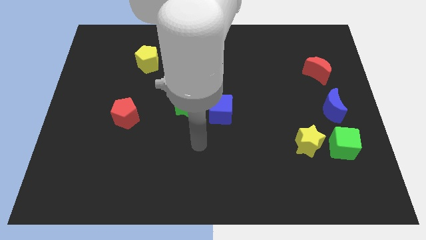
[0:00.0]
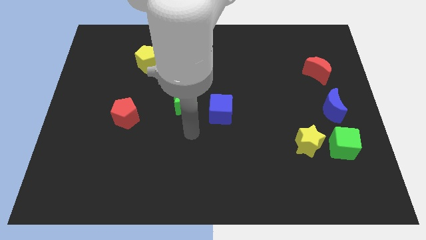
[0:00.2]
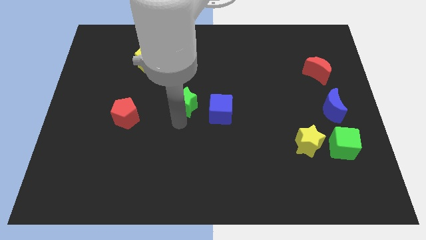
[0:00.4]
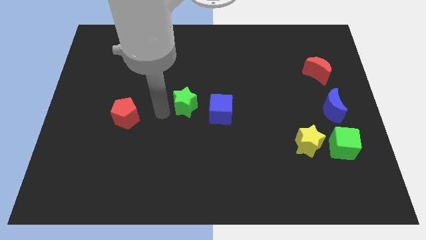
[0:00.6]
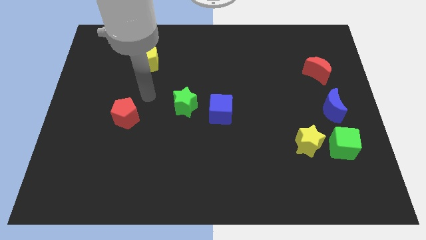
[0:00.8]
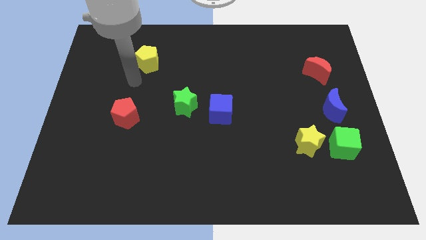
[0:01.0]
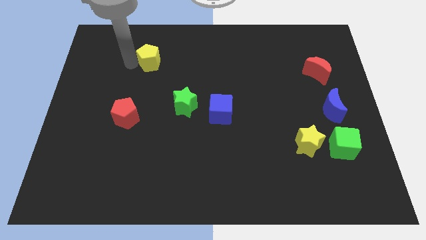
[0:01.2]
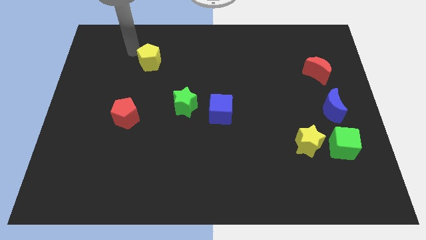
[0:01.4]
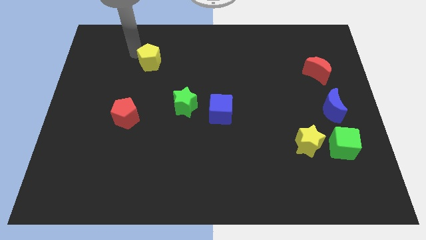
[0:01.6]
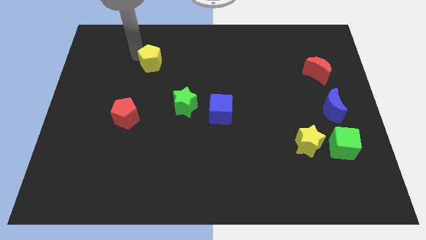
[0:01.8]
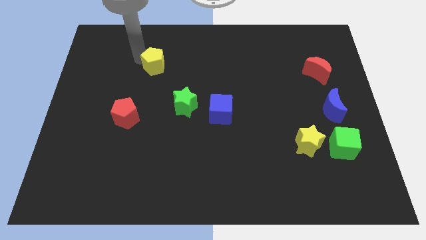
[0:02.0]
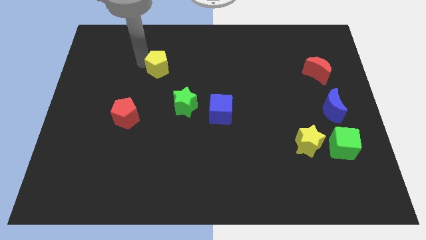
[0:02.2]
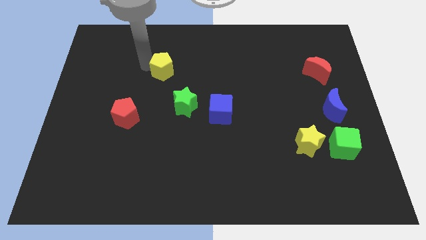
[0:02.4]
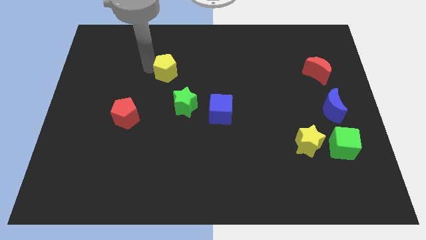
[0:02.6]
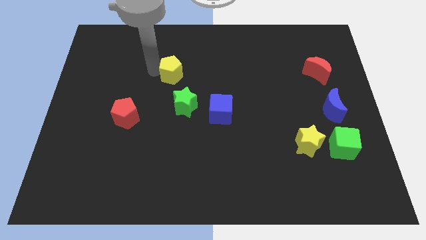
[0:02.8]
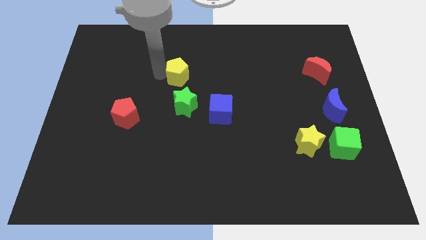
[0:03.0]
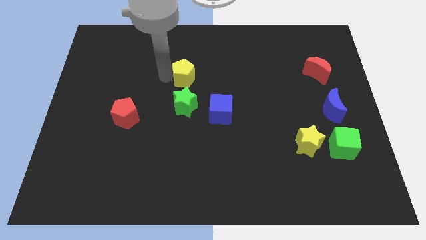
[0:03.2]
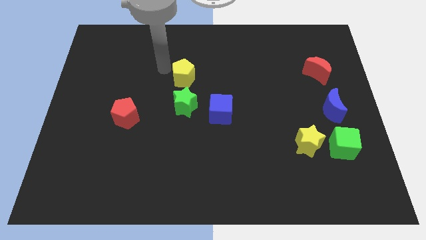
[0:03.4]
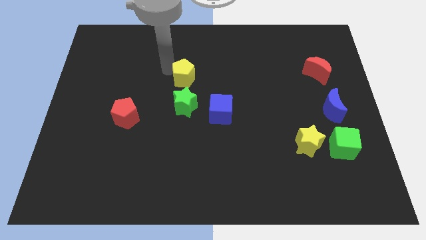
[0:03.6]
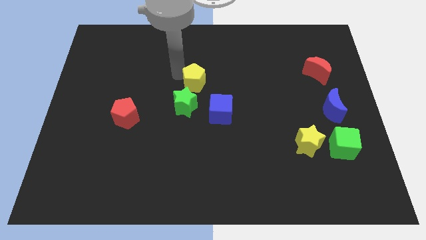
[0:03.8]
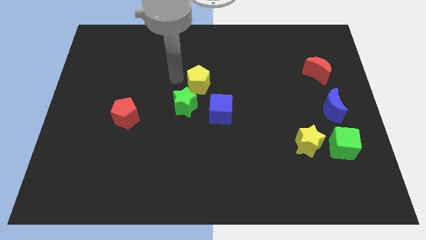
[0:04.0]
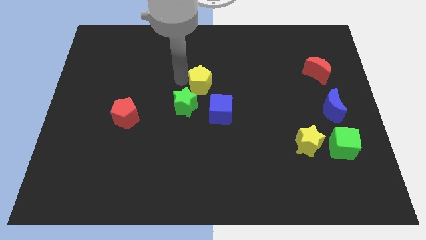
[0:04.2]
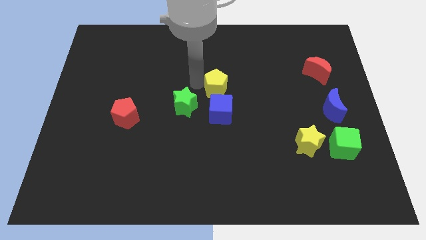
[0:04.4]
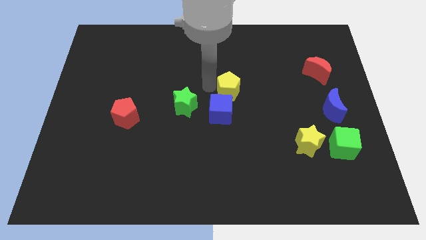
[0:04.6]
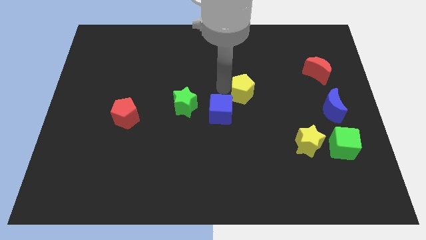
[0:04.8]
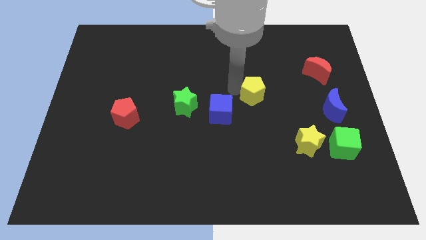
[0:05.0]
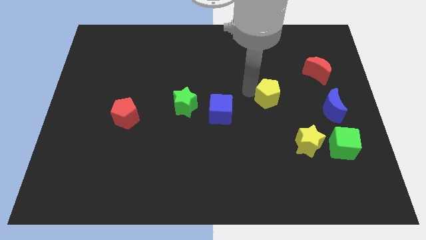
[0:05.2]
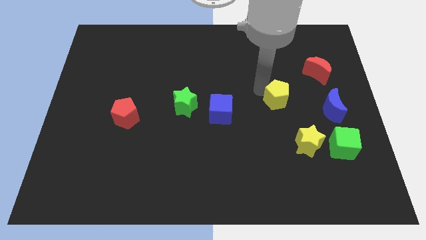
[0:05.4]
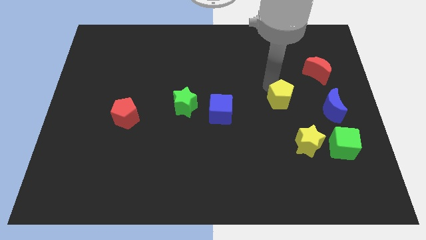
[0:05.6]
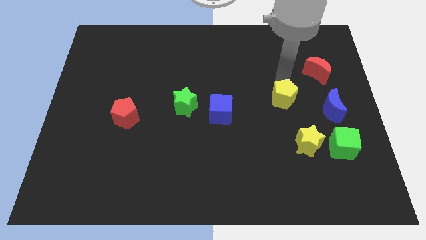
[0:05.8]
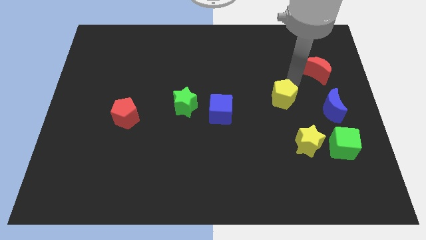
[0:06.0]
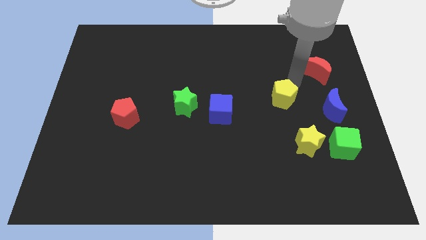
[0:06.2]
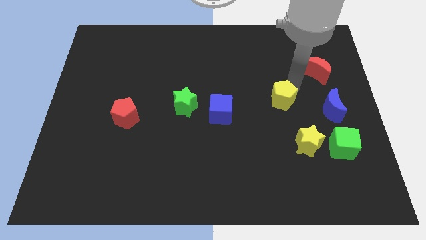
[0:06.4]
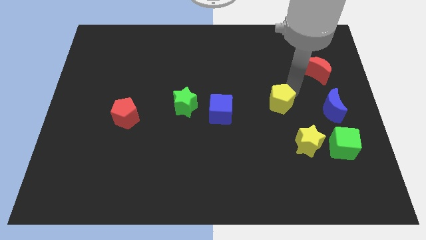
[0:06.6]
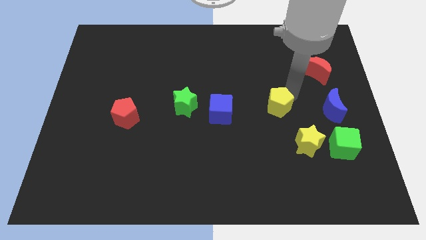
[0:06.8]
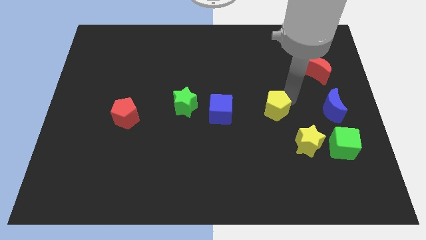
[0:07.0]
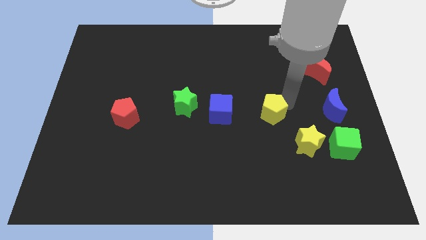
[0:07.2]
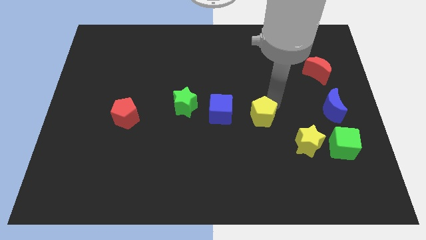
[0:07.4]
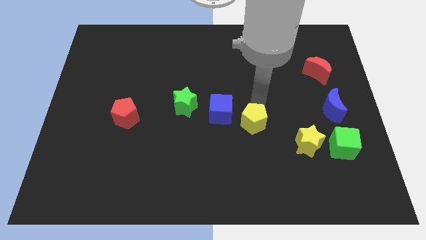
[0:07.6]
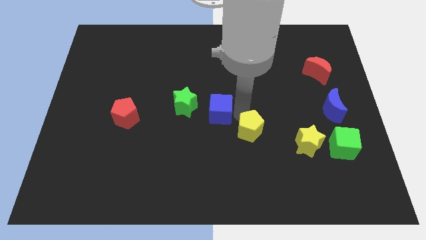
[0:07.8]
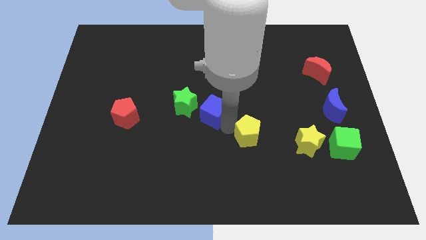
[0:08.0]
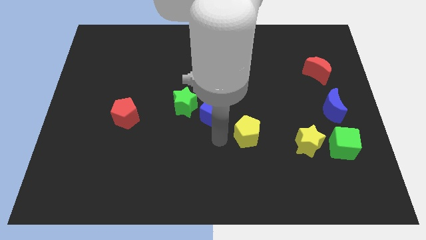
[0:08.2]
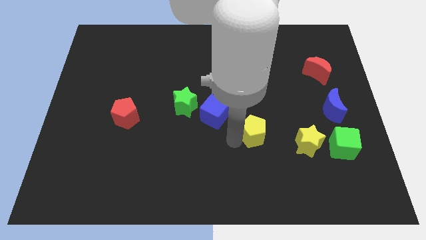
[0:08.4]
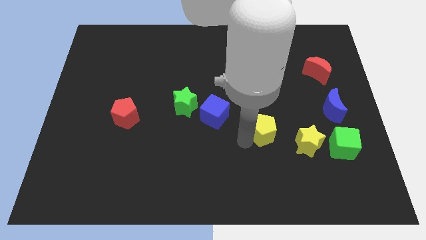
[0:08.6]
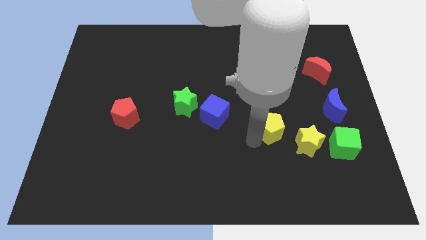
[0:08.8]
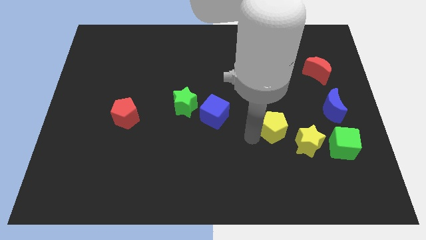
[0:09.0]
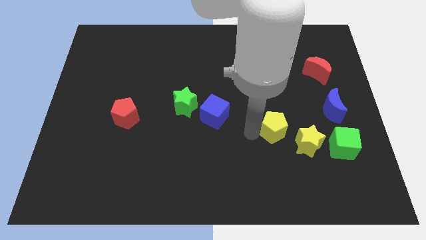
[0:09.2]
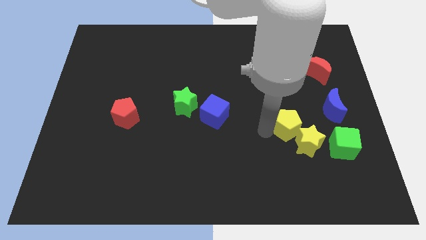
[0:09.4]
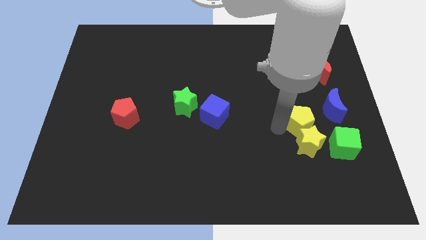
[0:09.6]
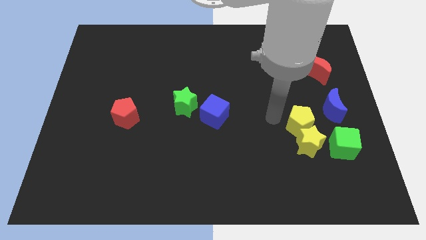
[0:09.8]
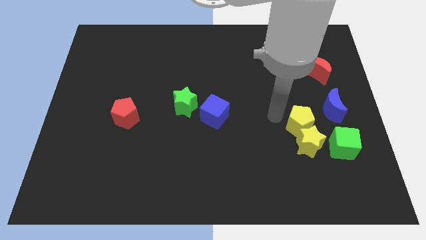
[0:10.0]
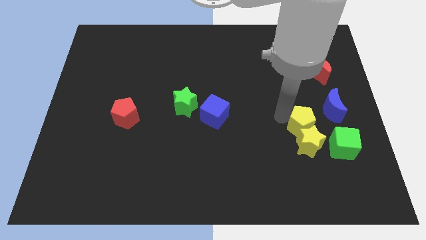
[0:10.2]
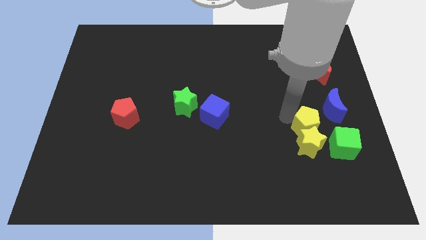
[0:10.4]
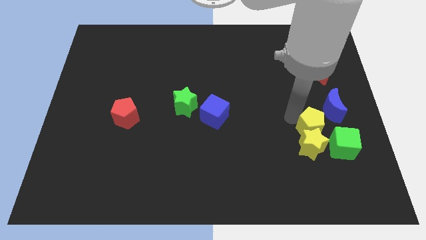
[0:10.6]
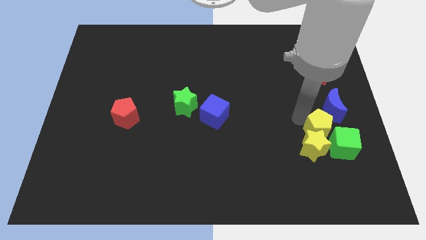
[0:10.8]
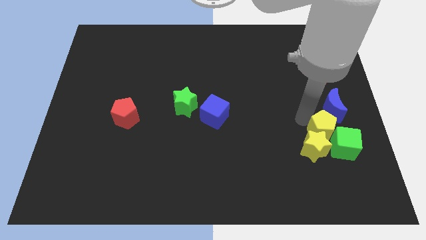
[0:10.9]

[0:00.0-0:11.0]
move the yellow pentagon next to the green cube

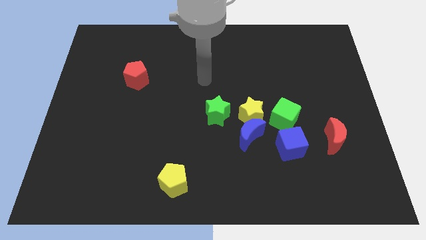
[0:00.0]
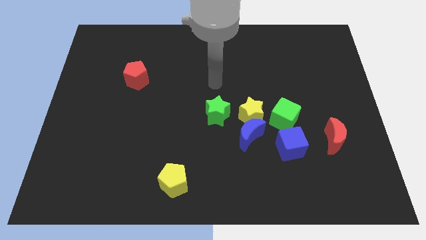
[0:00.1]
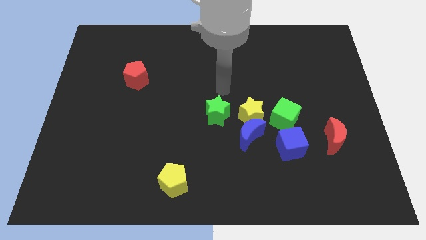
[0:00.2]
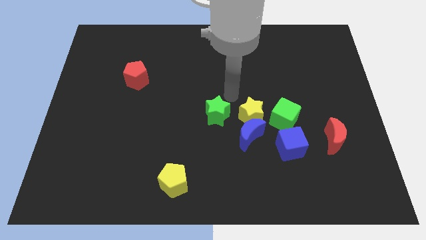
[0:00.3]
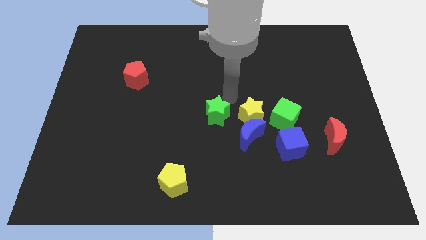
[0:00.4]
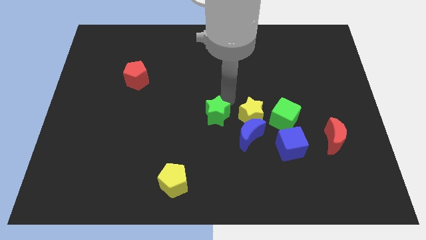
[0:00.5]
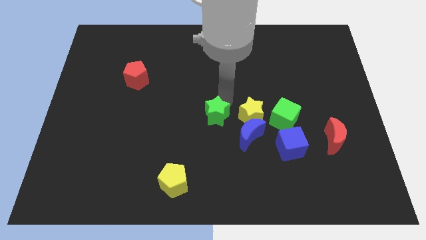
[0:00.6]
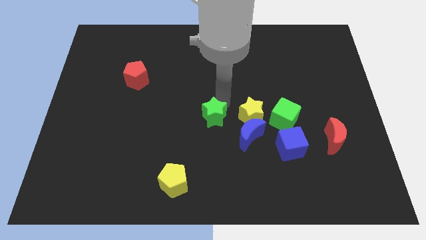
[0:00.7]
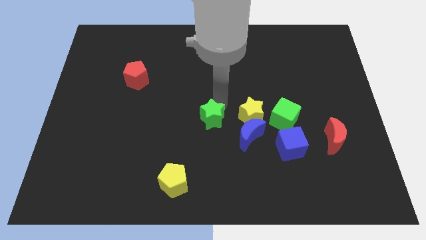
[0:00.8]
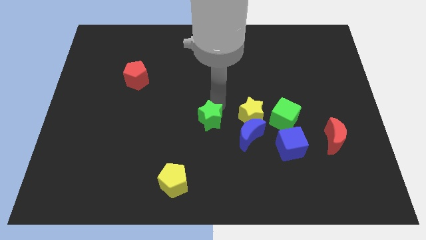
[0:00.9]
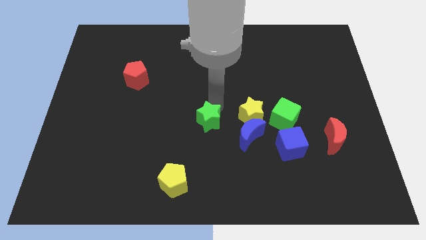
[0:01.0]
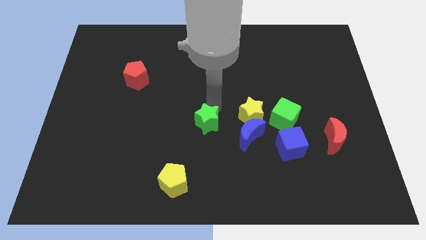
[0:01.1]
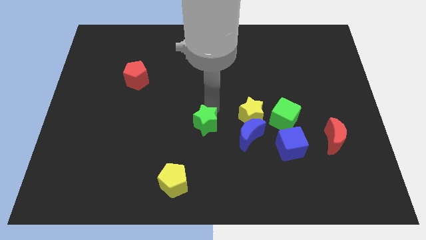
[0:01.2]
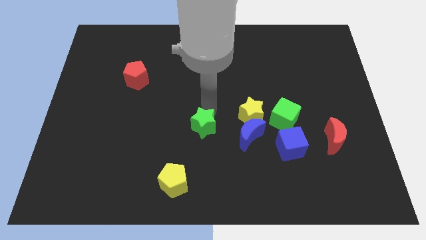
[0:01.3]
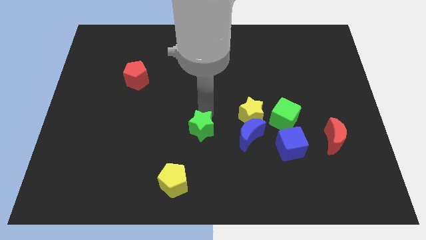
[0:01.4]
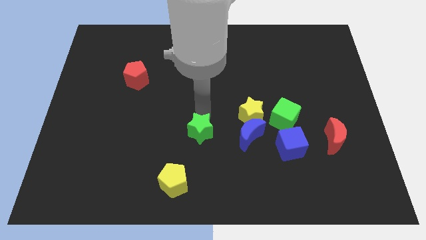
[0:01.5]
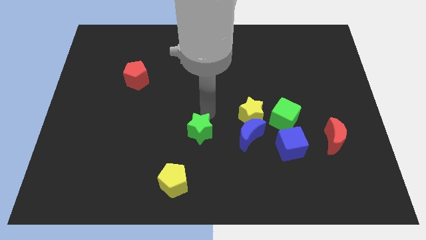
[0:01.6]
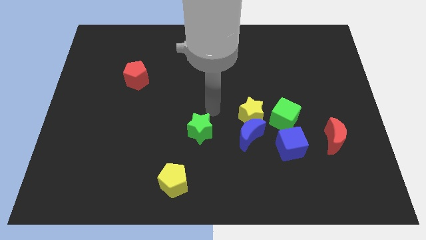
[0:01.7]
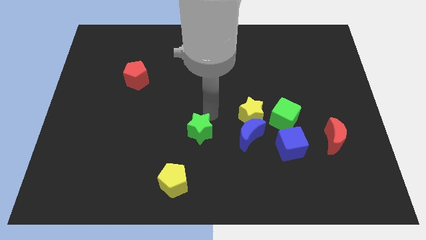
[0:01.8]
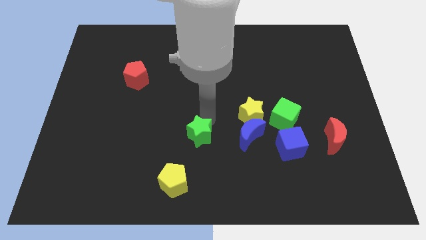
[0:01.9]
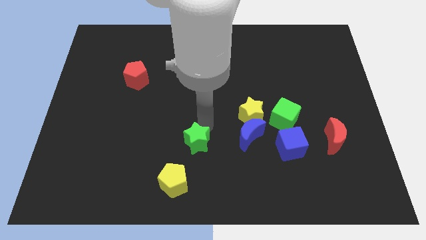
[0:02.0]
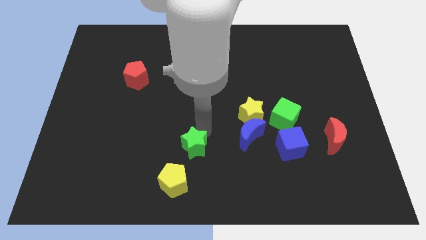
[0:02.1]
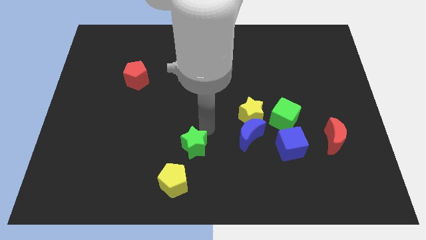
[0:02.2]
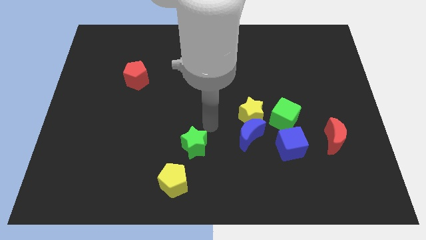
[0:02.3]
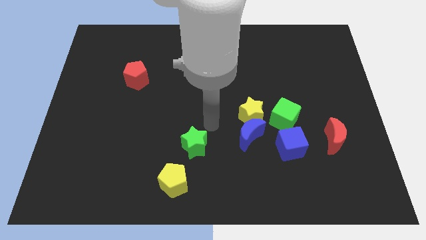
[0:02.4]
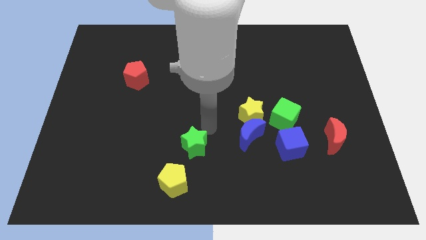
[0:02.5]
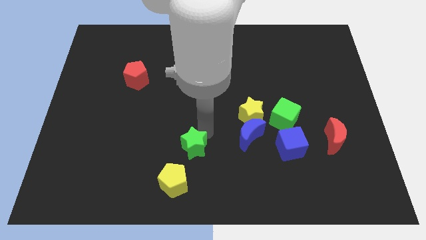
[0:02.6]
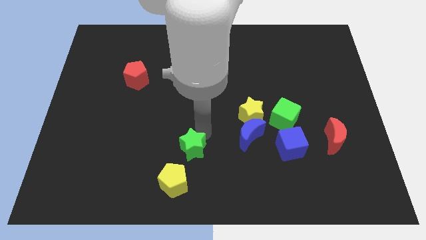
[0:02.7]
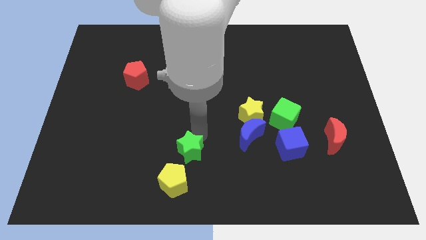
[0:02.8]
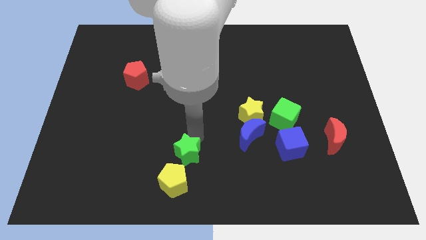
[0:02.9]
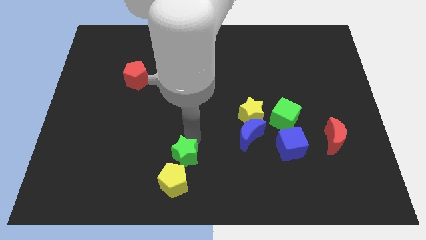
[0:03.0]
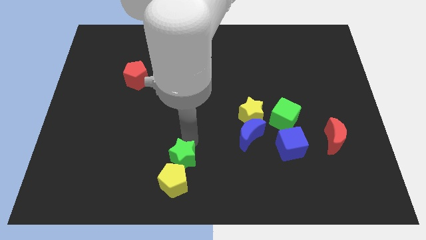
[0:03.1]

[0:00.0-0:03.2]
slide the green star close to the yellow pentagon
